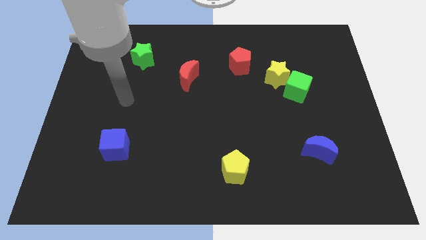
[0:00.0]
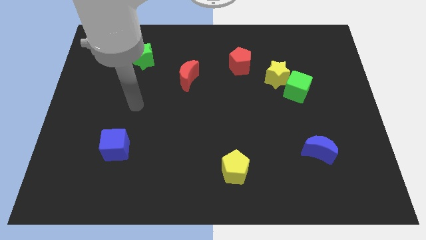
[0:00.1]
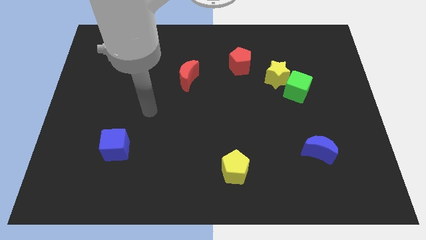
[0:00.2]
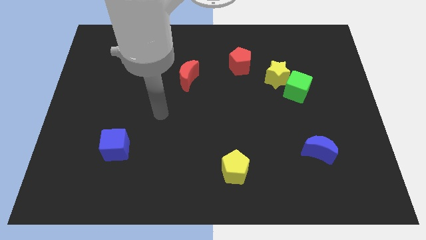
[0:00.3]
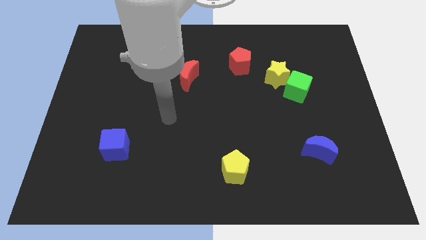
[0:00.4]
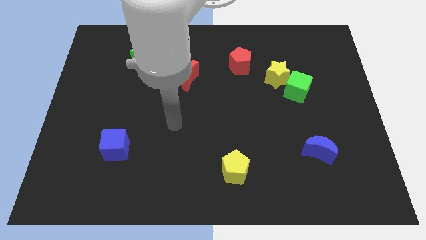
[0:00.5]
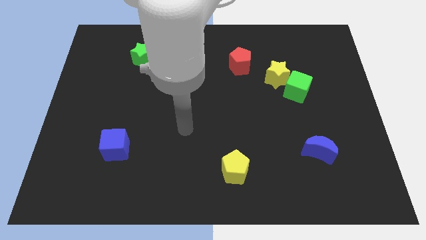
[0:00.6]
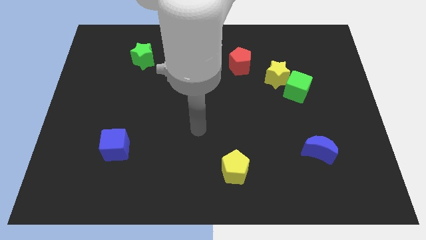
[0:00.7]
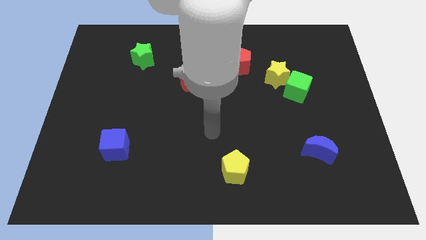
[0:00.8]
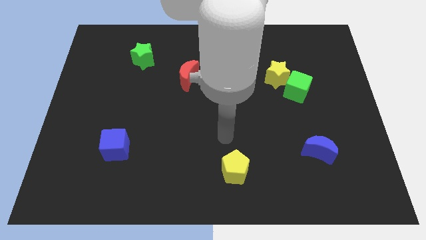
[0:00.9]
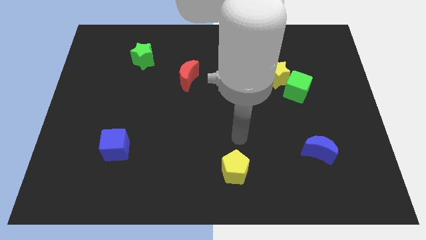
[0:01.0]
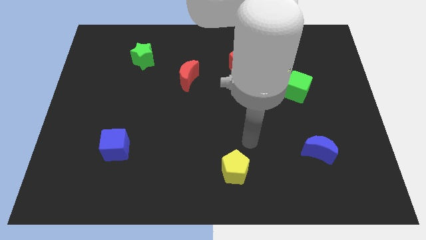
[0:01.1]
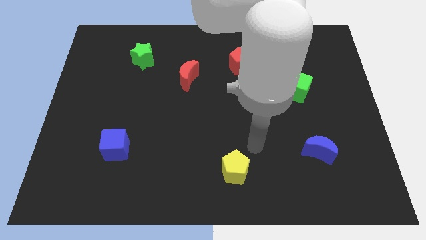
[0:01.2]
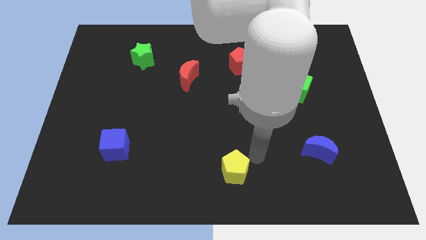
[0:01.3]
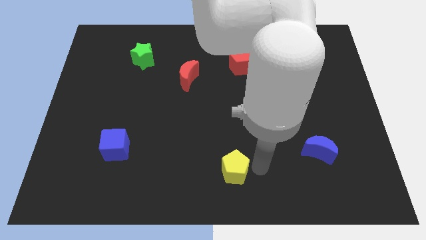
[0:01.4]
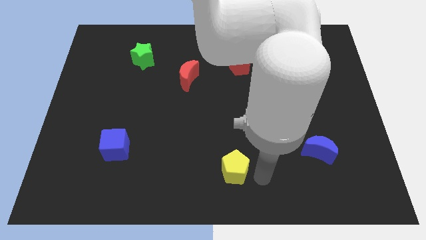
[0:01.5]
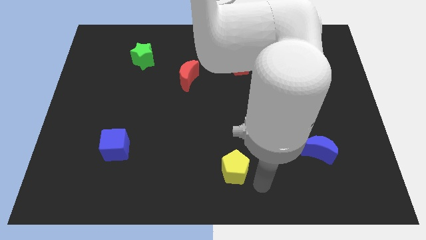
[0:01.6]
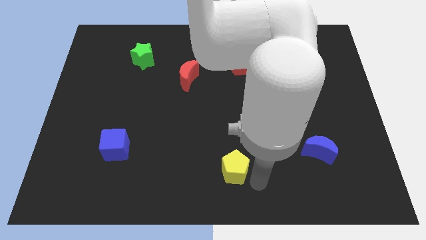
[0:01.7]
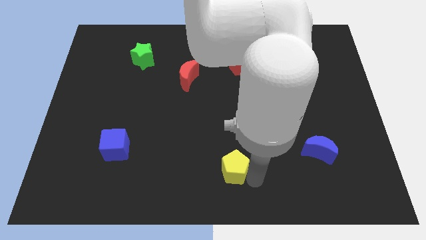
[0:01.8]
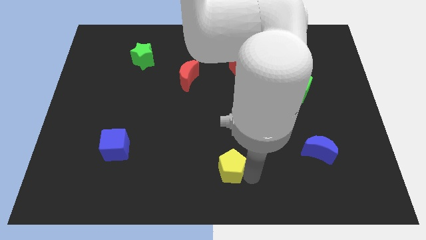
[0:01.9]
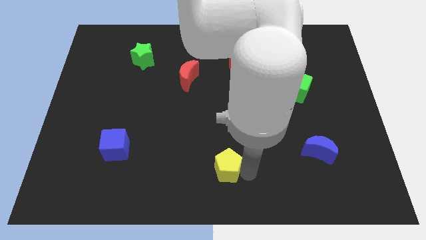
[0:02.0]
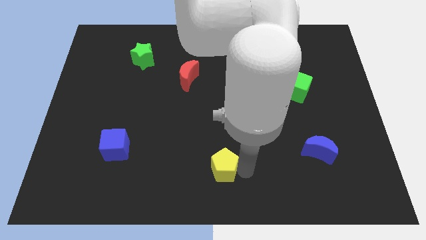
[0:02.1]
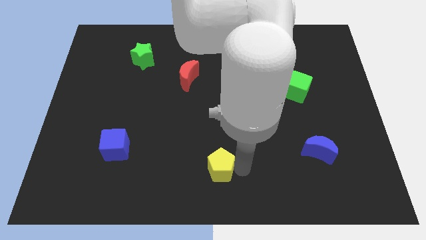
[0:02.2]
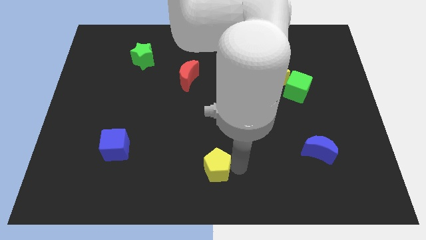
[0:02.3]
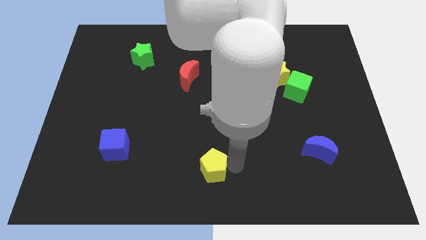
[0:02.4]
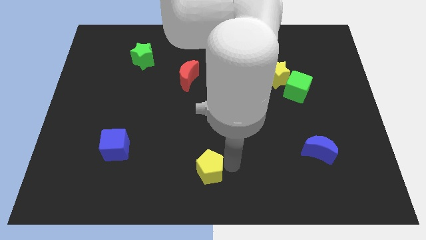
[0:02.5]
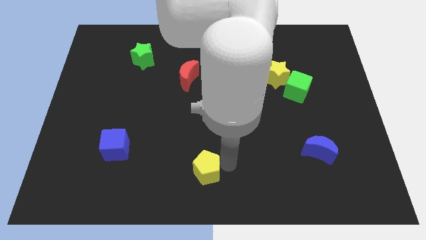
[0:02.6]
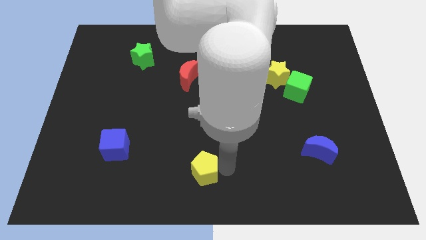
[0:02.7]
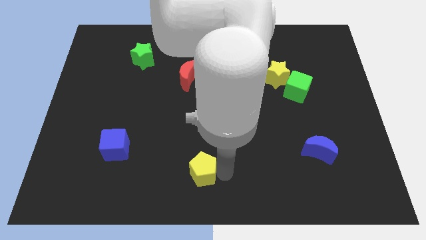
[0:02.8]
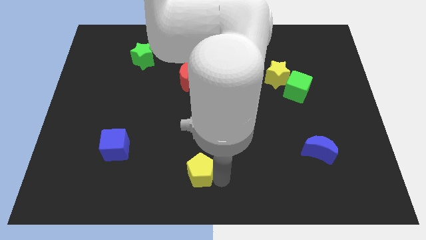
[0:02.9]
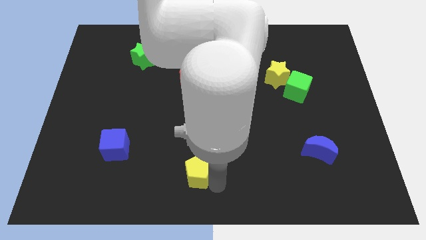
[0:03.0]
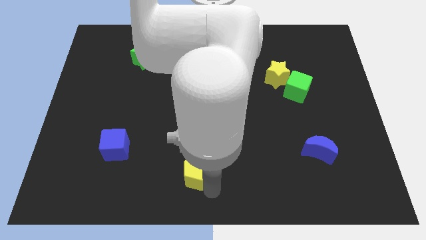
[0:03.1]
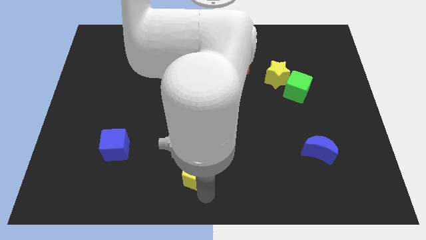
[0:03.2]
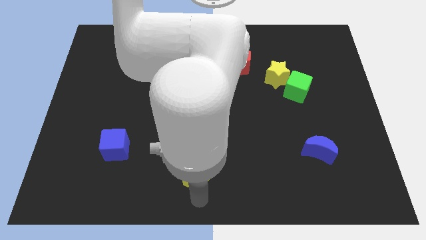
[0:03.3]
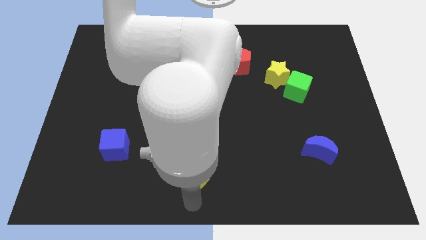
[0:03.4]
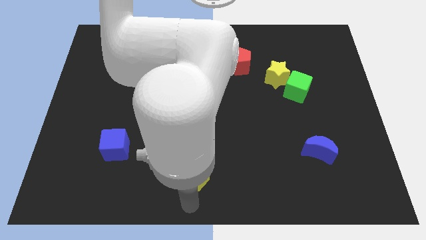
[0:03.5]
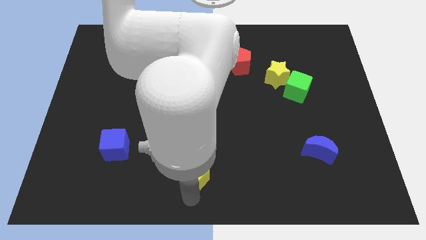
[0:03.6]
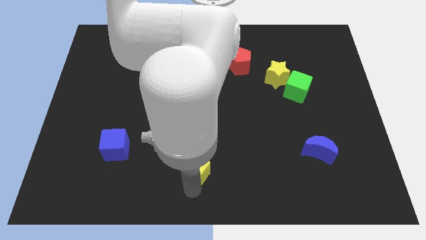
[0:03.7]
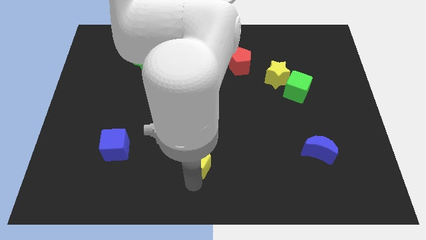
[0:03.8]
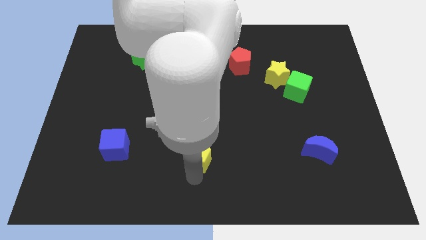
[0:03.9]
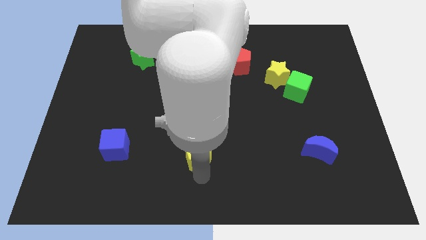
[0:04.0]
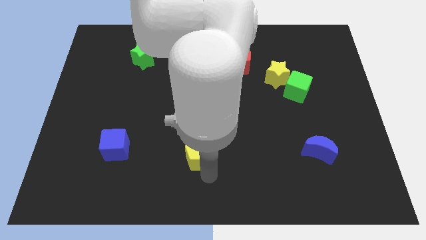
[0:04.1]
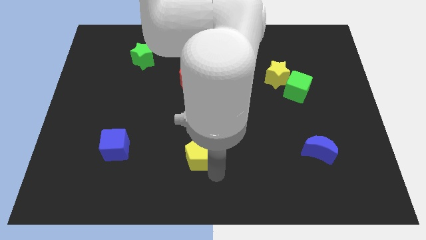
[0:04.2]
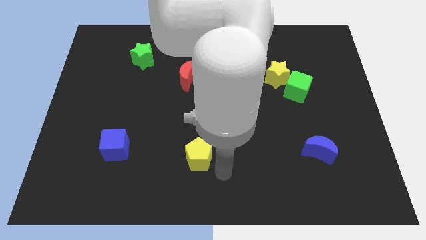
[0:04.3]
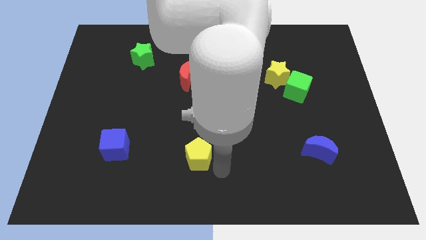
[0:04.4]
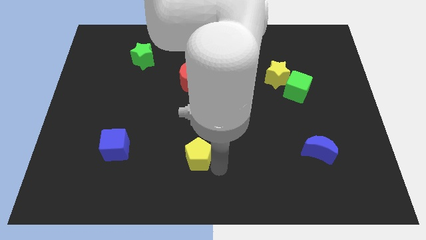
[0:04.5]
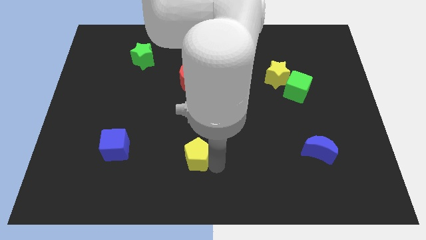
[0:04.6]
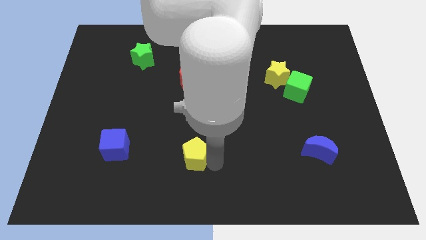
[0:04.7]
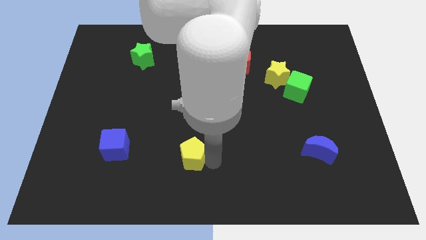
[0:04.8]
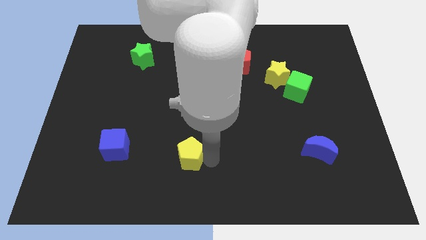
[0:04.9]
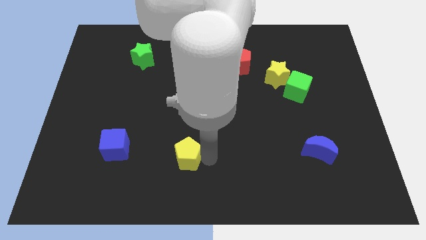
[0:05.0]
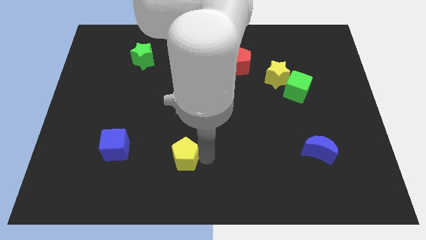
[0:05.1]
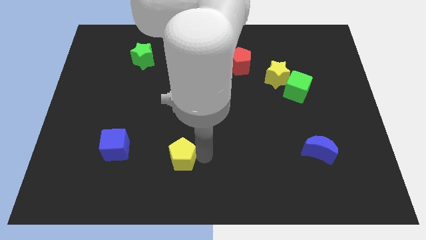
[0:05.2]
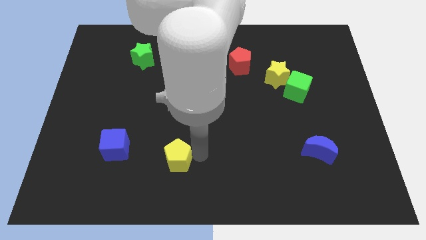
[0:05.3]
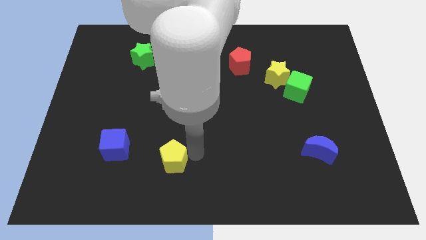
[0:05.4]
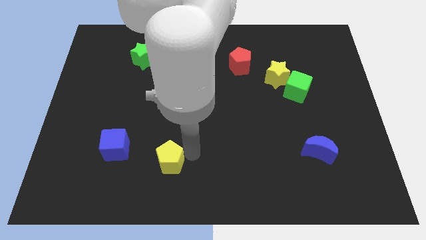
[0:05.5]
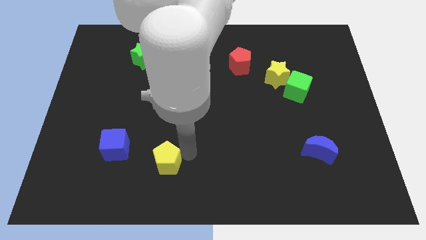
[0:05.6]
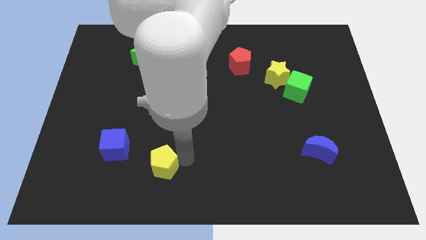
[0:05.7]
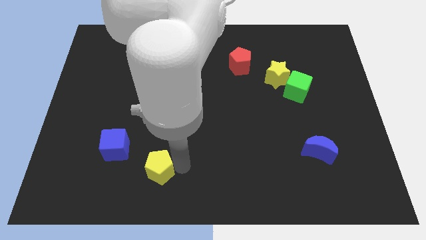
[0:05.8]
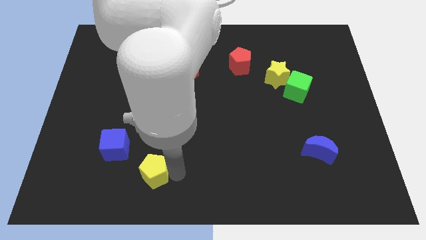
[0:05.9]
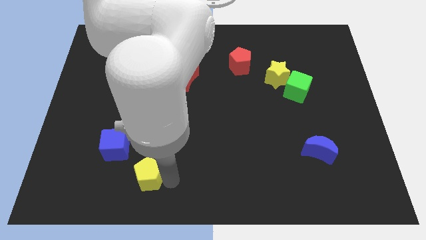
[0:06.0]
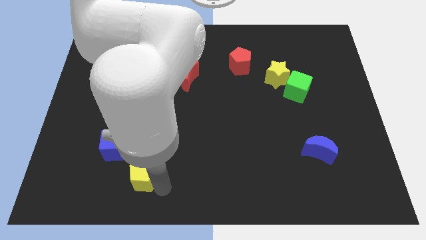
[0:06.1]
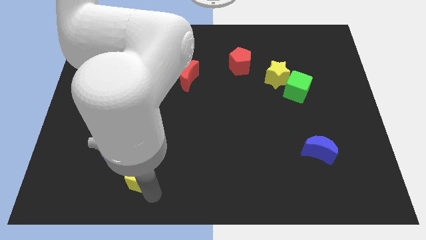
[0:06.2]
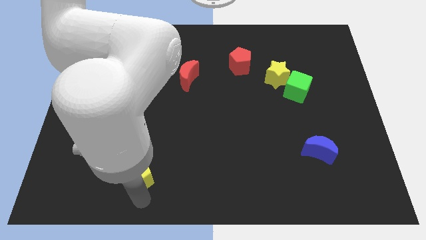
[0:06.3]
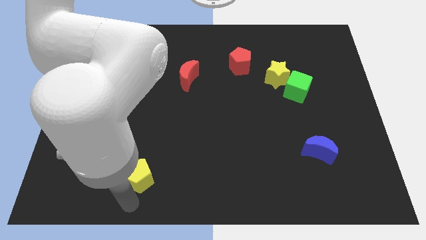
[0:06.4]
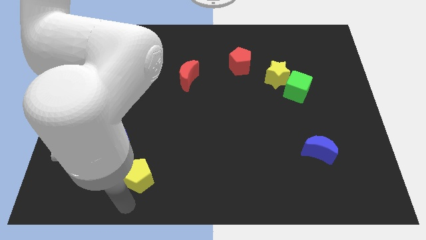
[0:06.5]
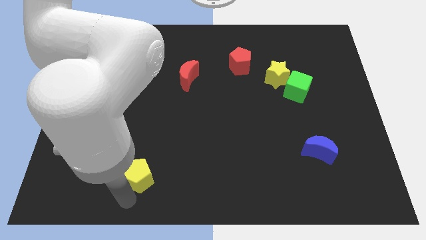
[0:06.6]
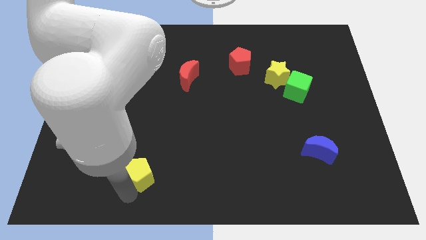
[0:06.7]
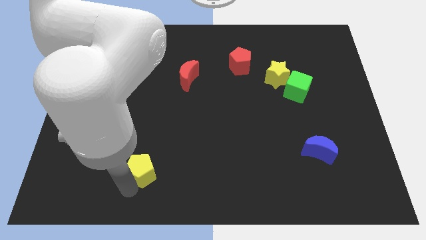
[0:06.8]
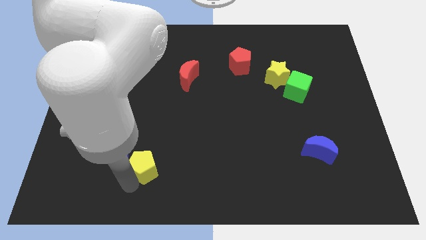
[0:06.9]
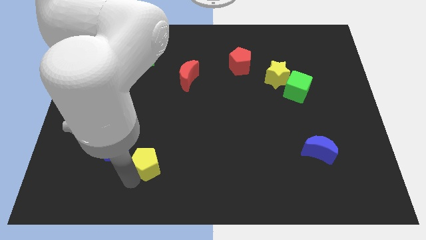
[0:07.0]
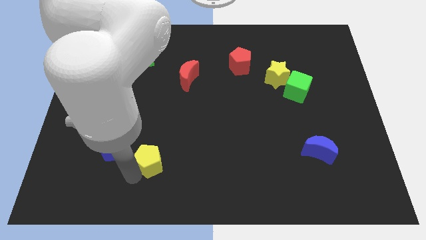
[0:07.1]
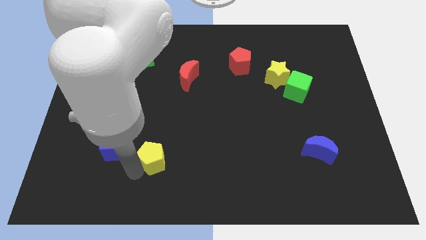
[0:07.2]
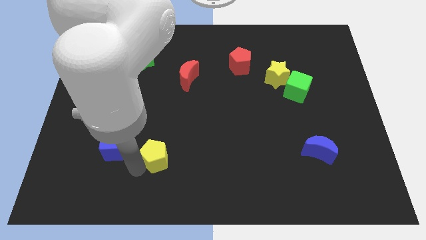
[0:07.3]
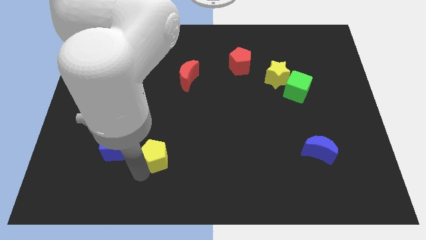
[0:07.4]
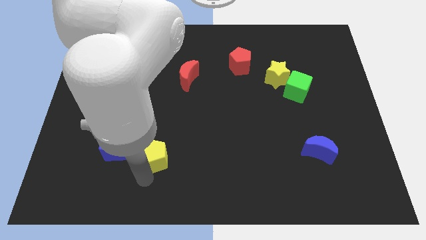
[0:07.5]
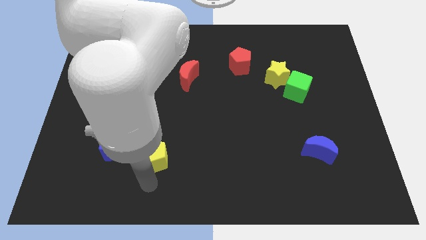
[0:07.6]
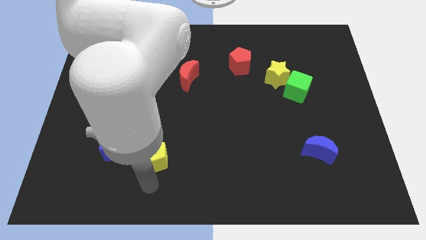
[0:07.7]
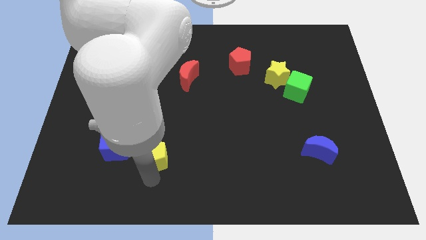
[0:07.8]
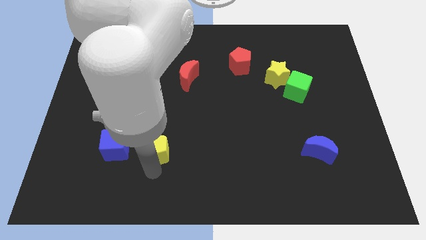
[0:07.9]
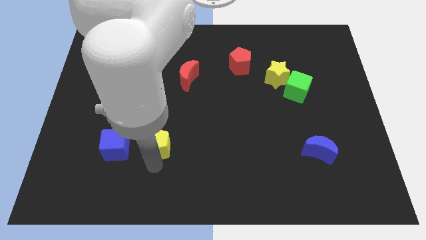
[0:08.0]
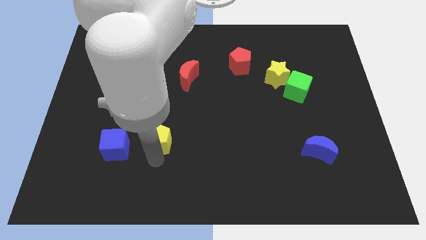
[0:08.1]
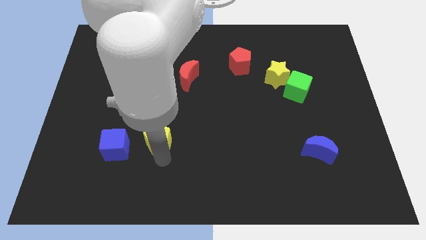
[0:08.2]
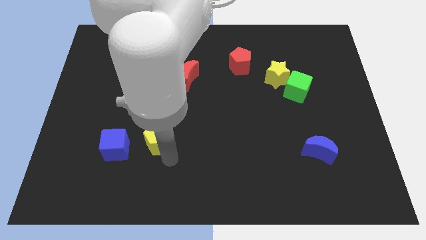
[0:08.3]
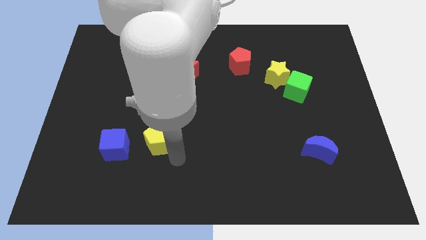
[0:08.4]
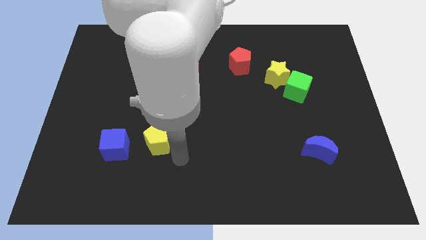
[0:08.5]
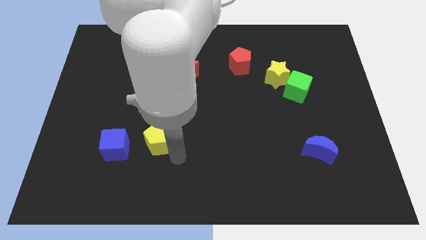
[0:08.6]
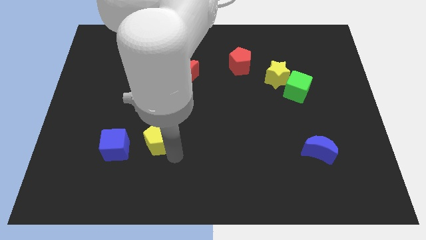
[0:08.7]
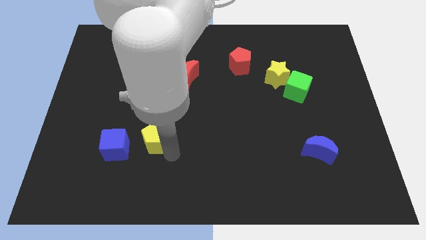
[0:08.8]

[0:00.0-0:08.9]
slide the yellow pentagon diagonally up and to the right of the blue cube
